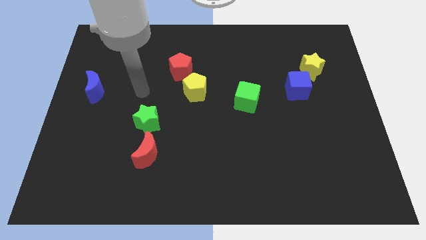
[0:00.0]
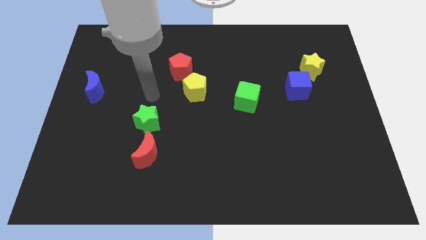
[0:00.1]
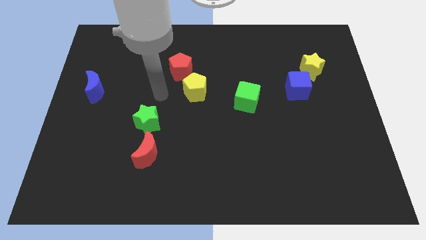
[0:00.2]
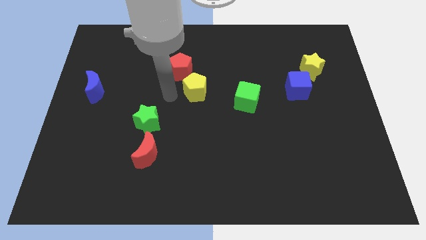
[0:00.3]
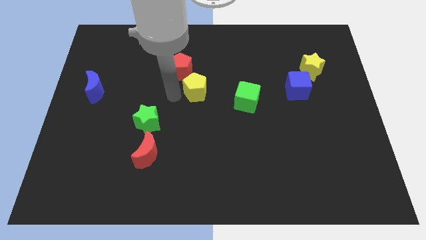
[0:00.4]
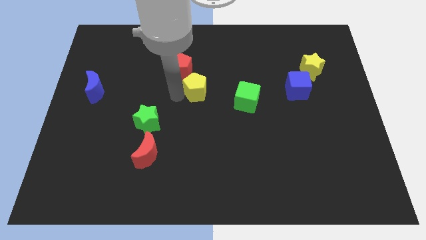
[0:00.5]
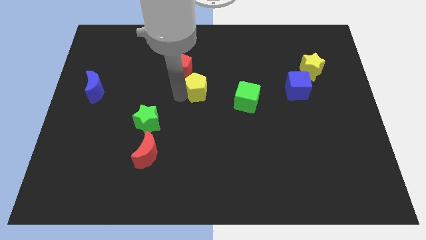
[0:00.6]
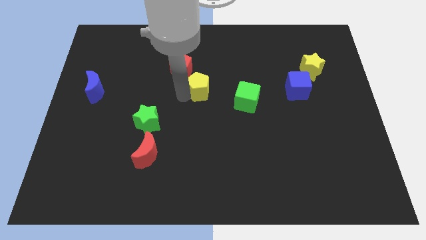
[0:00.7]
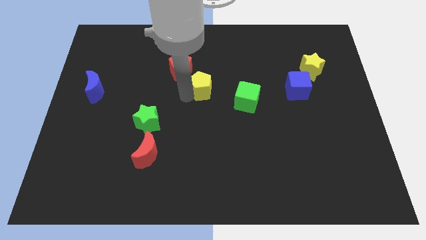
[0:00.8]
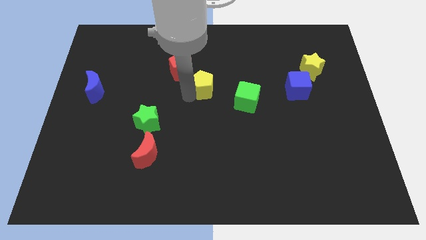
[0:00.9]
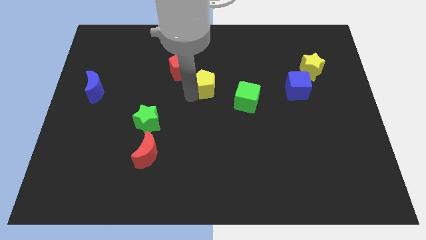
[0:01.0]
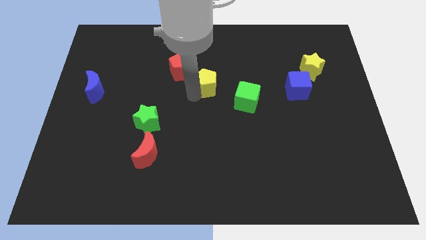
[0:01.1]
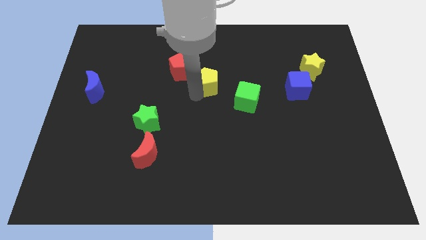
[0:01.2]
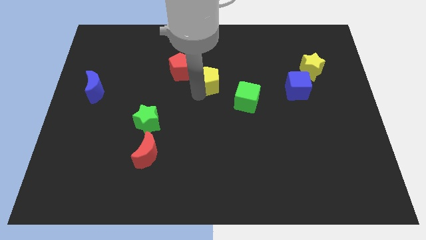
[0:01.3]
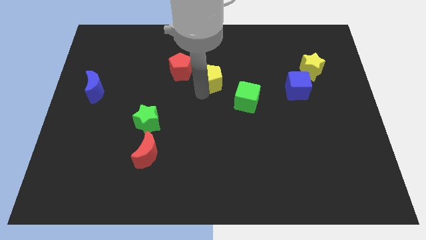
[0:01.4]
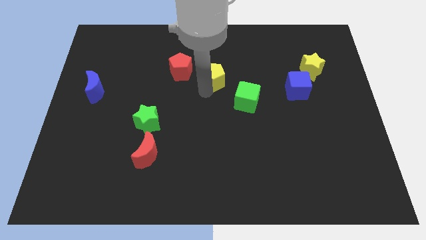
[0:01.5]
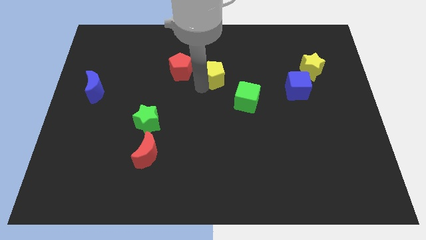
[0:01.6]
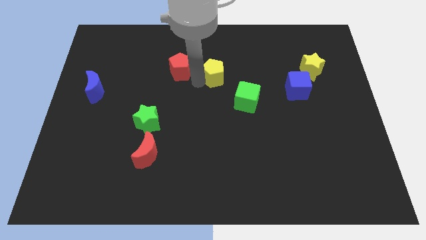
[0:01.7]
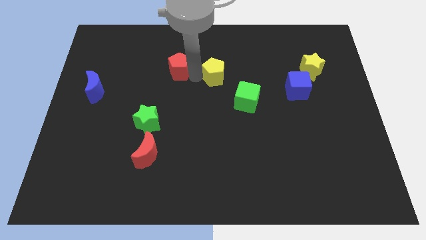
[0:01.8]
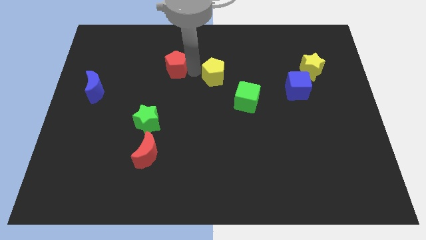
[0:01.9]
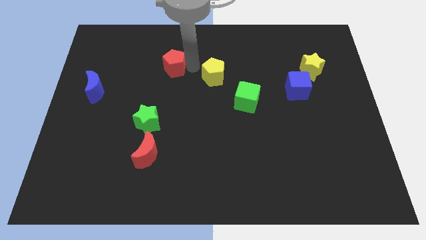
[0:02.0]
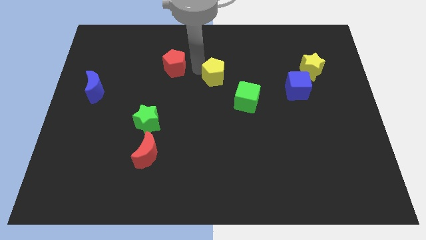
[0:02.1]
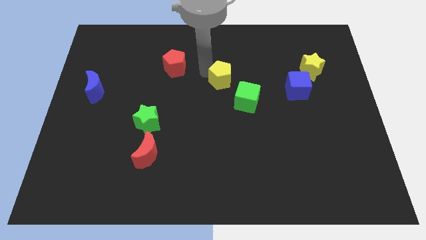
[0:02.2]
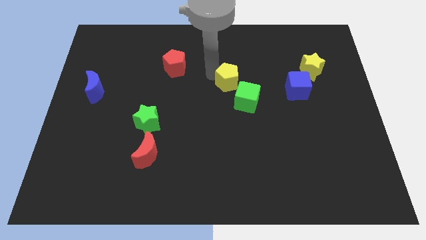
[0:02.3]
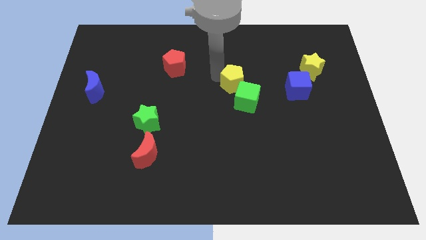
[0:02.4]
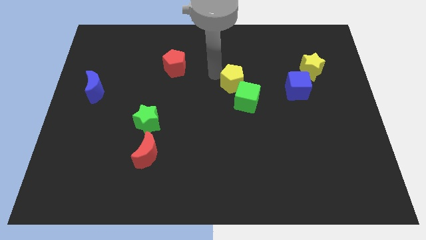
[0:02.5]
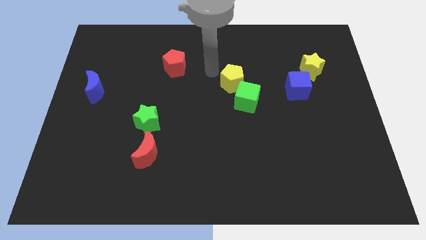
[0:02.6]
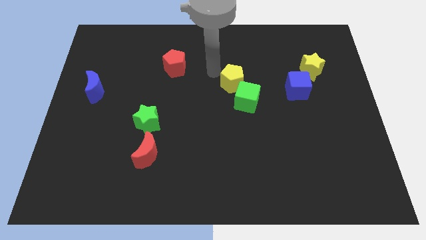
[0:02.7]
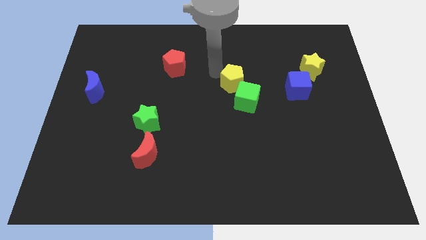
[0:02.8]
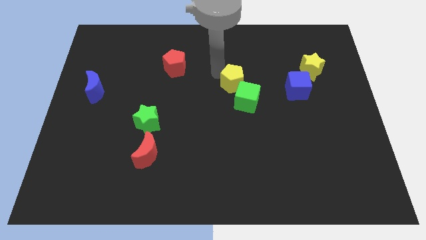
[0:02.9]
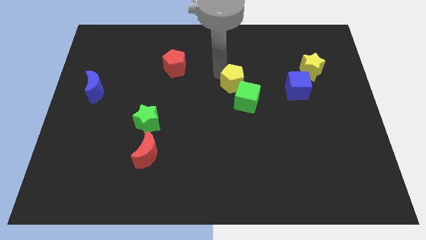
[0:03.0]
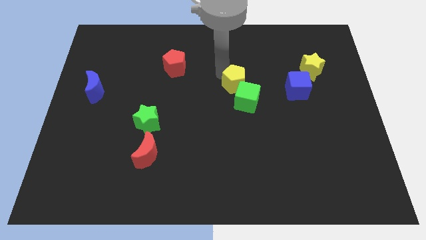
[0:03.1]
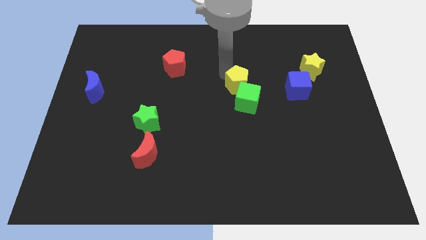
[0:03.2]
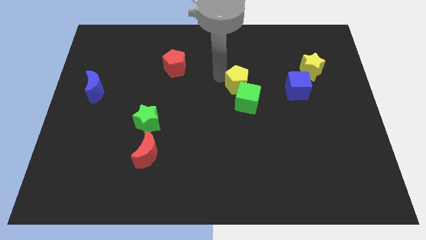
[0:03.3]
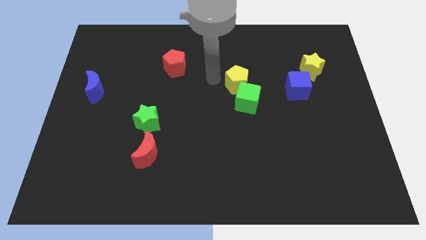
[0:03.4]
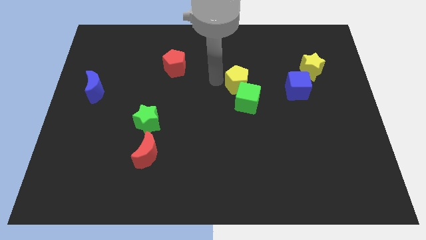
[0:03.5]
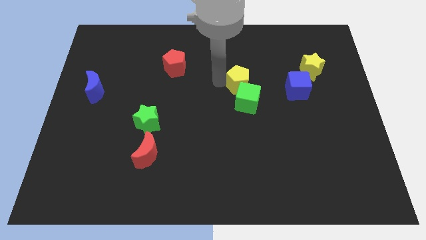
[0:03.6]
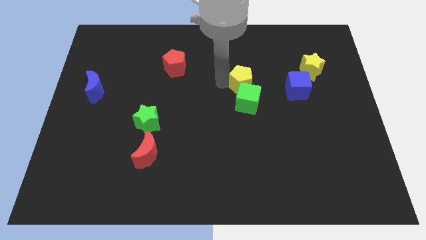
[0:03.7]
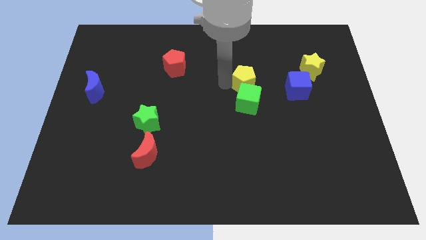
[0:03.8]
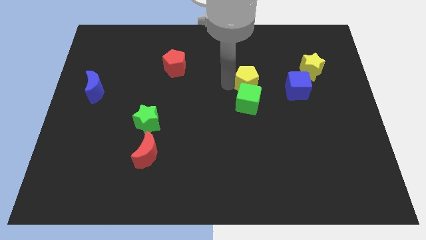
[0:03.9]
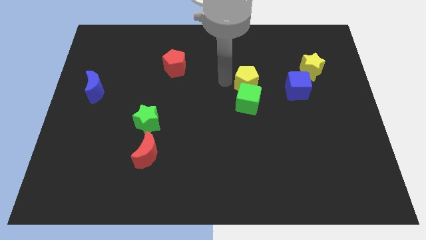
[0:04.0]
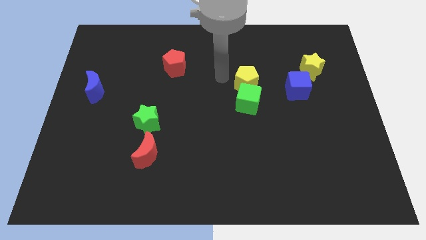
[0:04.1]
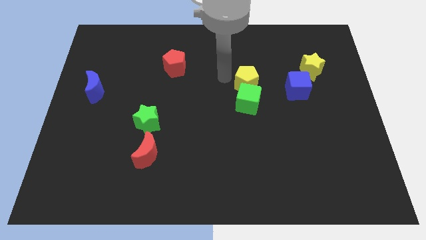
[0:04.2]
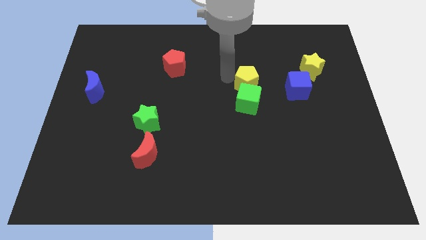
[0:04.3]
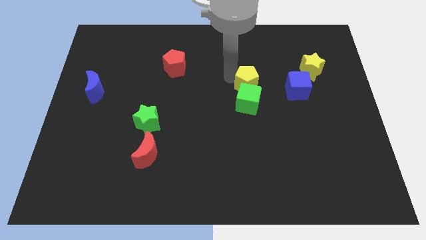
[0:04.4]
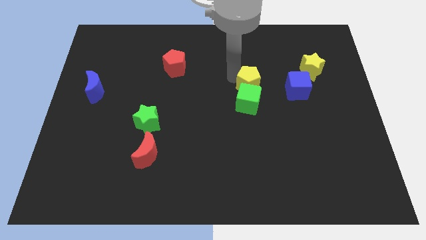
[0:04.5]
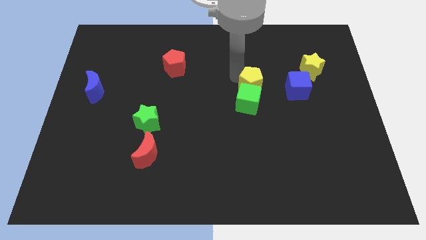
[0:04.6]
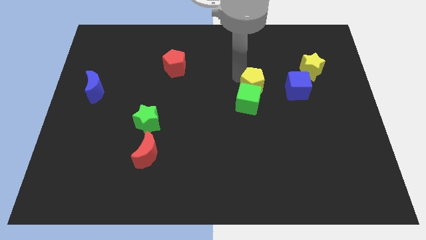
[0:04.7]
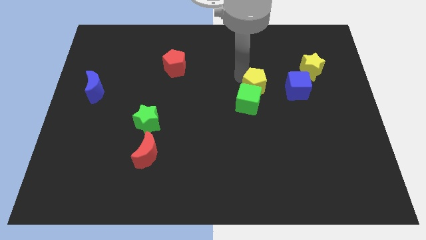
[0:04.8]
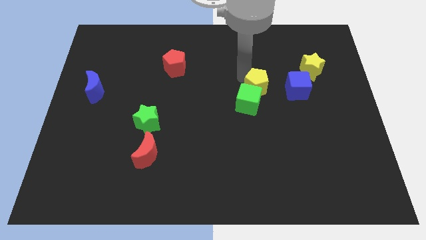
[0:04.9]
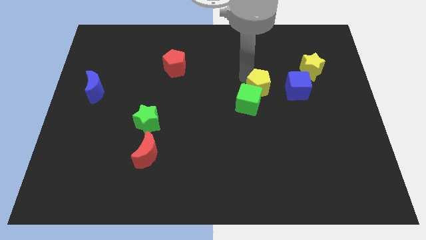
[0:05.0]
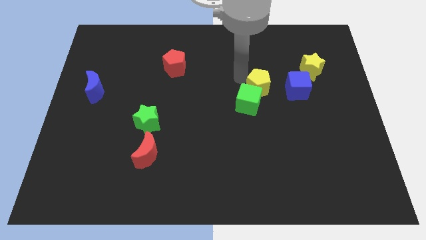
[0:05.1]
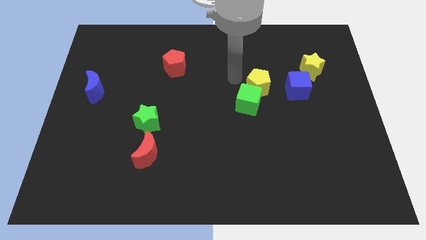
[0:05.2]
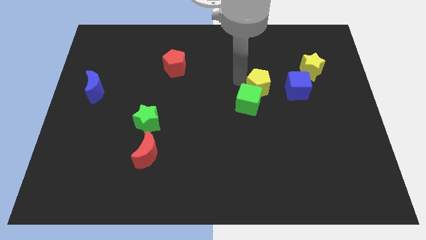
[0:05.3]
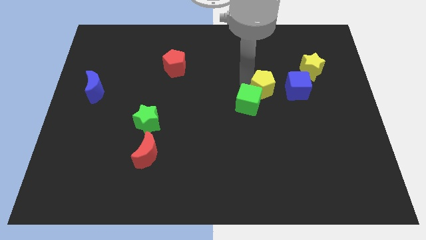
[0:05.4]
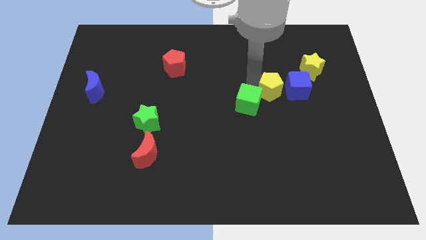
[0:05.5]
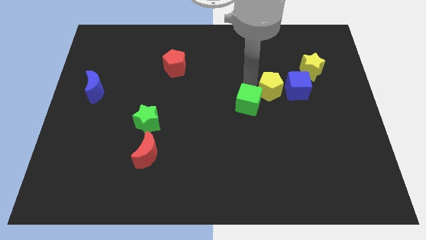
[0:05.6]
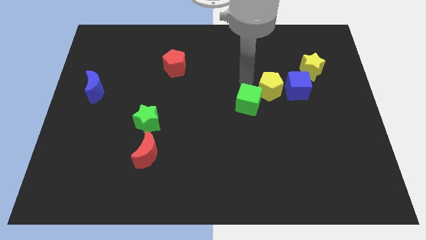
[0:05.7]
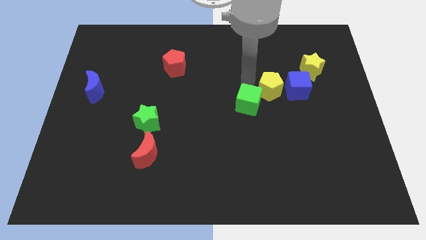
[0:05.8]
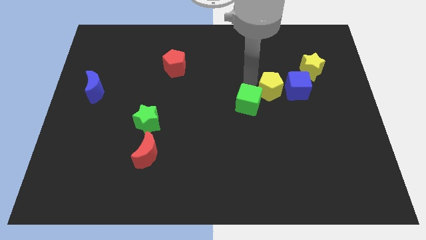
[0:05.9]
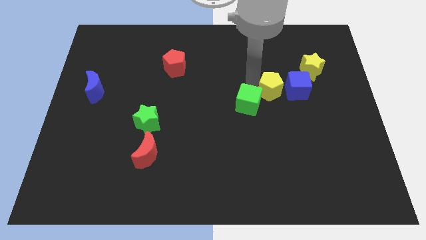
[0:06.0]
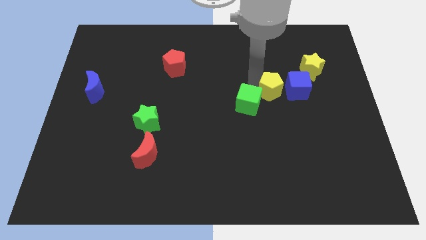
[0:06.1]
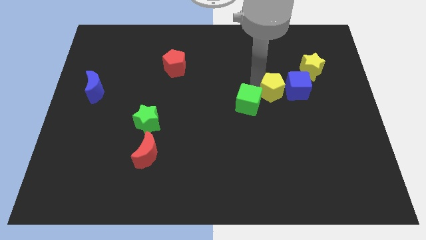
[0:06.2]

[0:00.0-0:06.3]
slide the yellow pentagon diagonally down and to the left of the yellow star

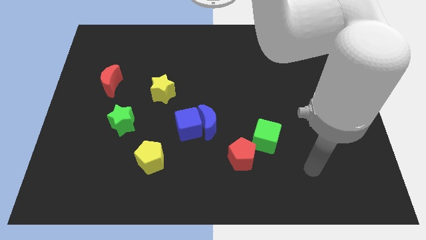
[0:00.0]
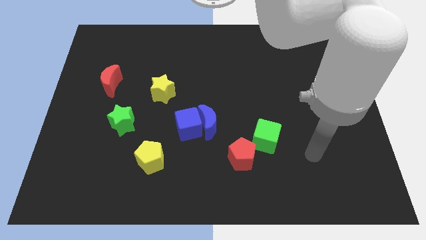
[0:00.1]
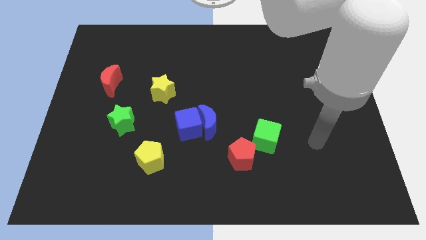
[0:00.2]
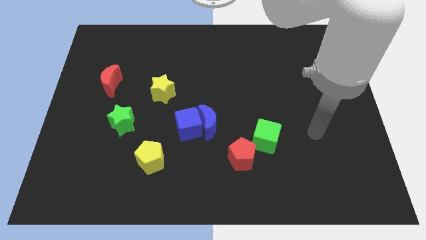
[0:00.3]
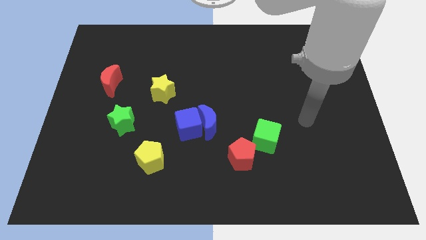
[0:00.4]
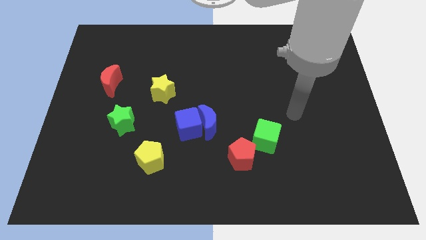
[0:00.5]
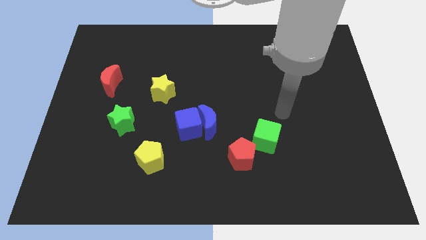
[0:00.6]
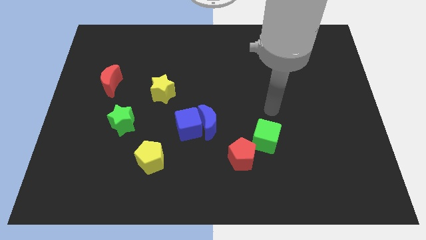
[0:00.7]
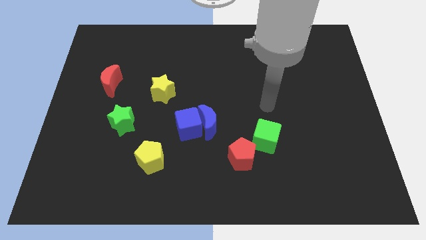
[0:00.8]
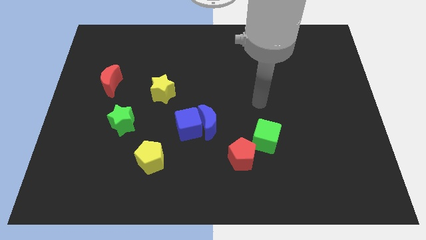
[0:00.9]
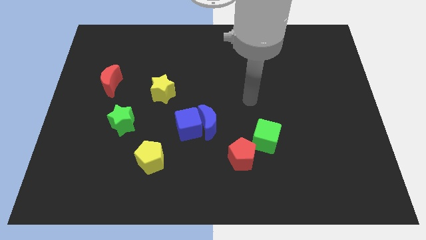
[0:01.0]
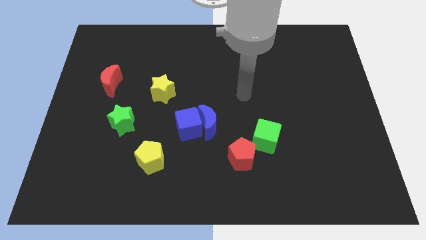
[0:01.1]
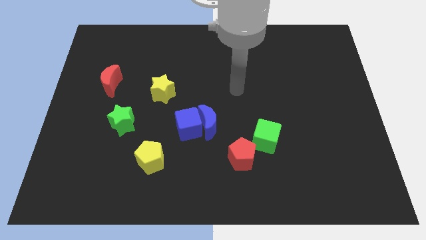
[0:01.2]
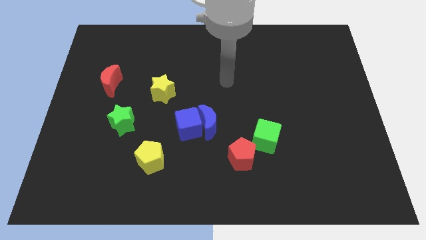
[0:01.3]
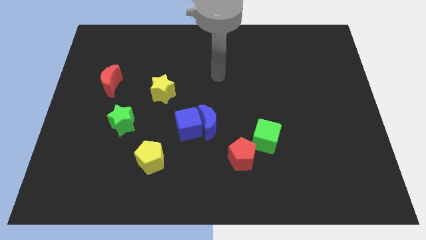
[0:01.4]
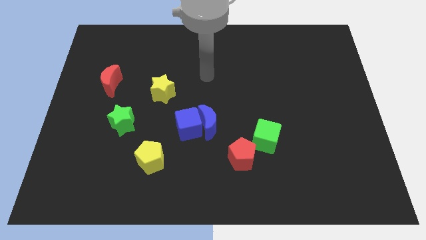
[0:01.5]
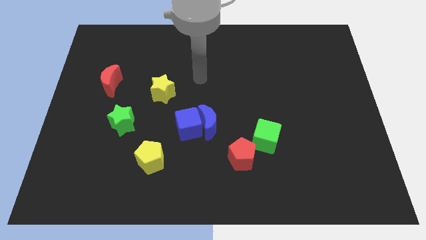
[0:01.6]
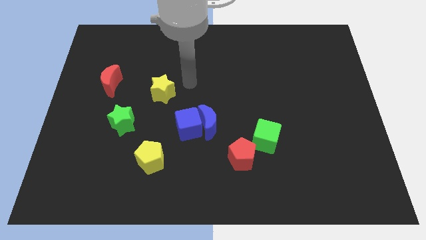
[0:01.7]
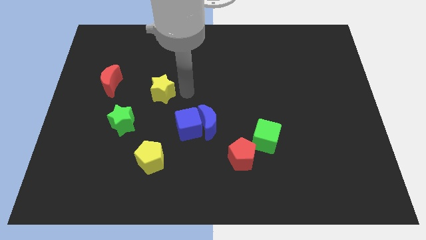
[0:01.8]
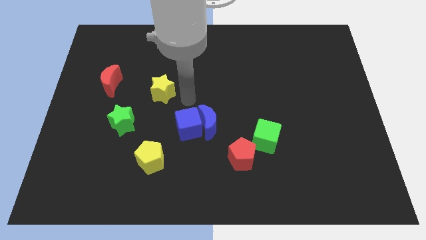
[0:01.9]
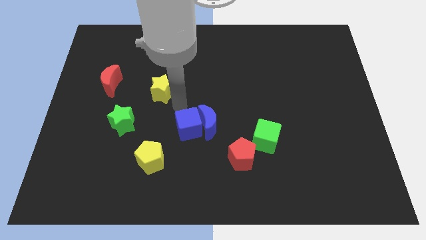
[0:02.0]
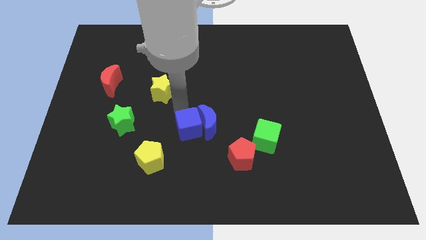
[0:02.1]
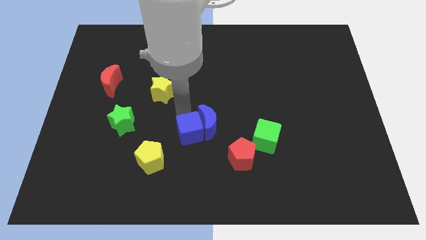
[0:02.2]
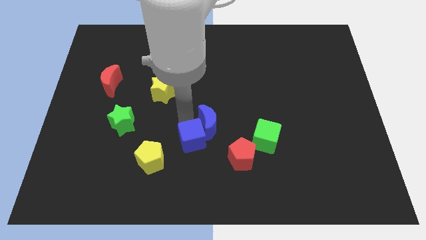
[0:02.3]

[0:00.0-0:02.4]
move the blue cube to the bottom side of the blue moon
